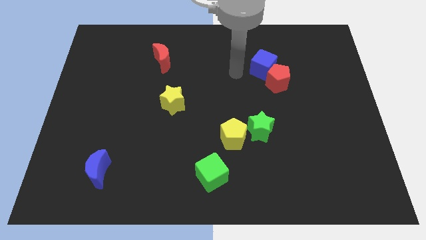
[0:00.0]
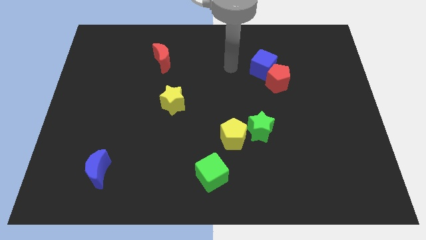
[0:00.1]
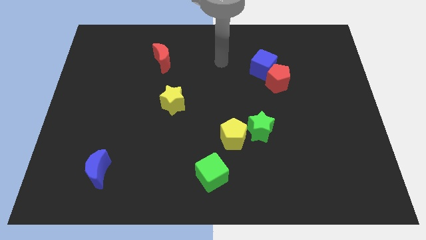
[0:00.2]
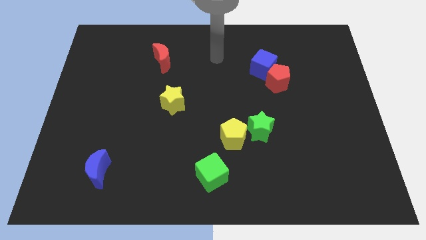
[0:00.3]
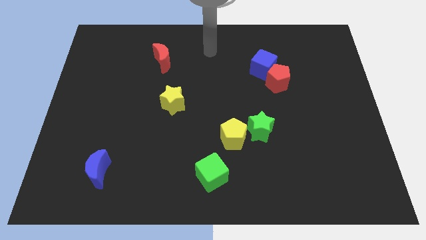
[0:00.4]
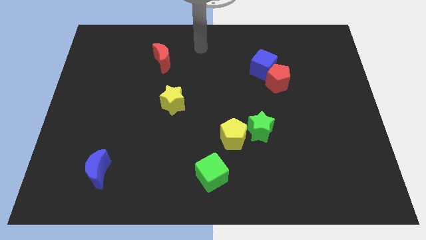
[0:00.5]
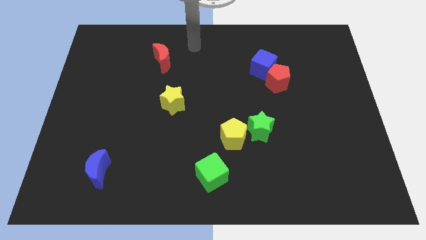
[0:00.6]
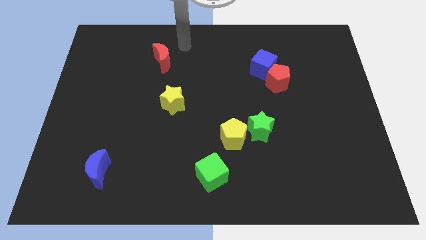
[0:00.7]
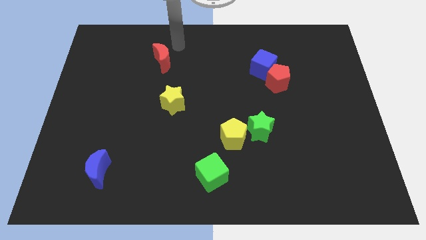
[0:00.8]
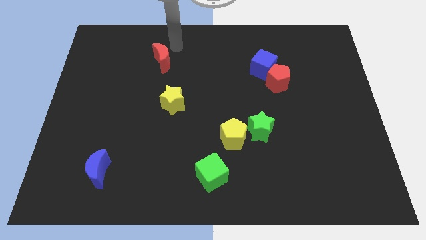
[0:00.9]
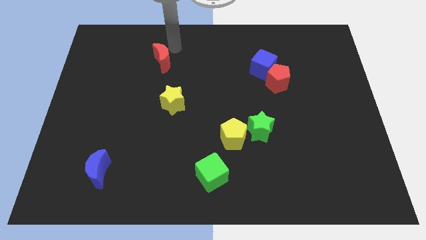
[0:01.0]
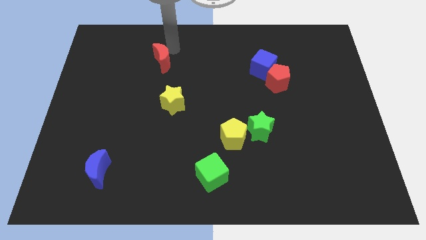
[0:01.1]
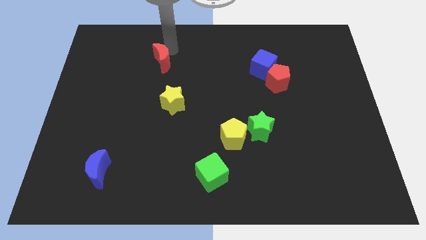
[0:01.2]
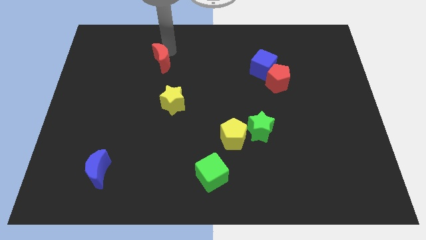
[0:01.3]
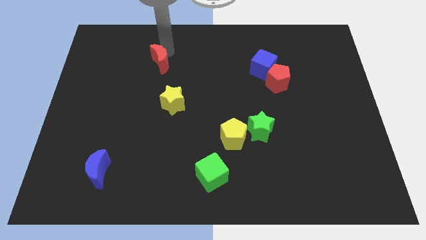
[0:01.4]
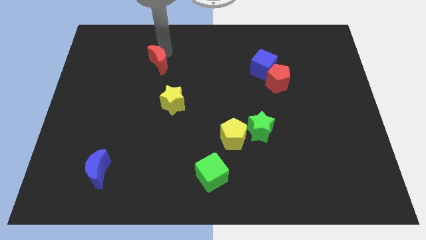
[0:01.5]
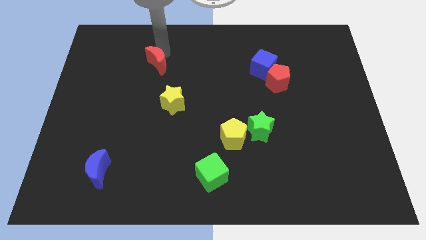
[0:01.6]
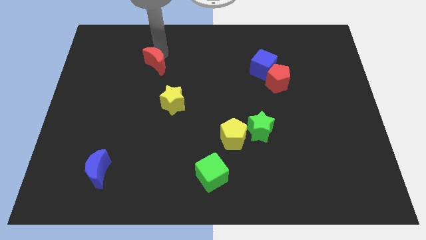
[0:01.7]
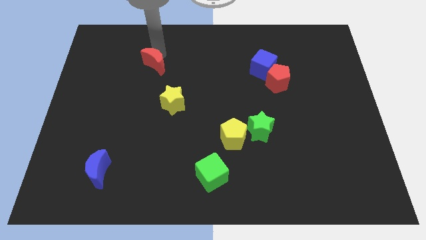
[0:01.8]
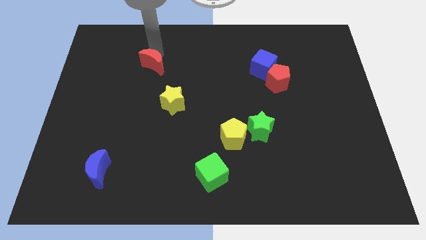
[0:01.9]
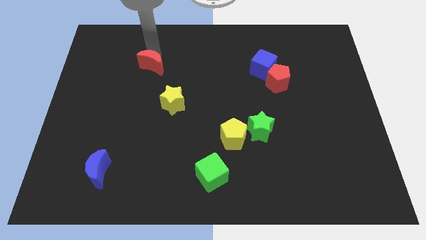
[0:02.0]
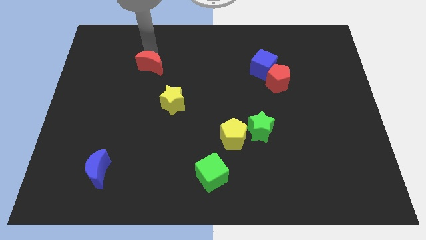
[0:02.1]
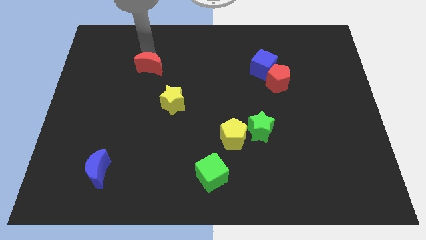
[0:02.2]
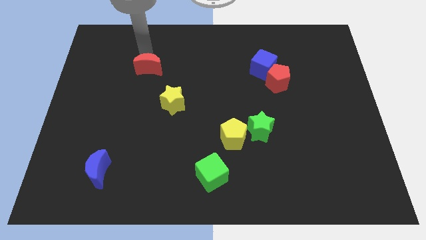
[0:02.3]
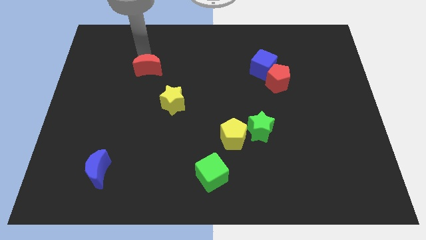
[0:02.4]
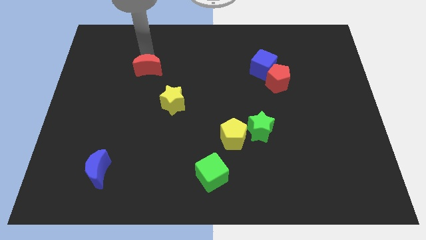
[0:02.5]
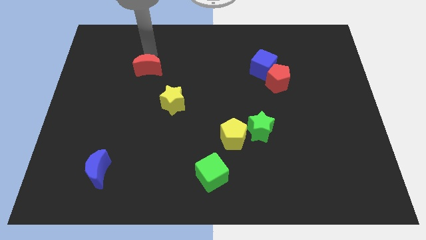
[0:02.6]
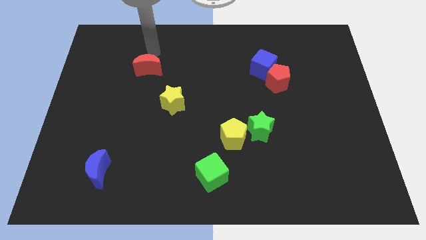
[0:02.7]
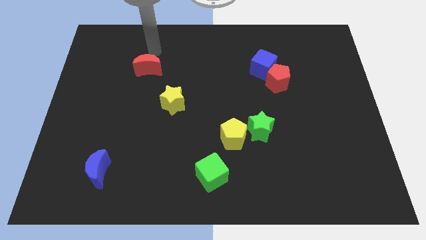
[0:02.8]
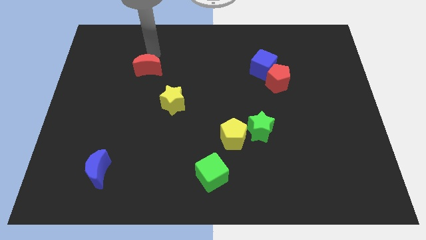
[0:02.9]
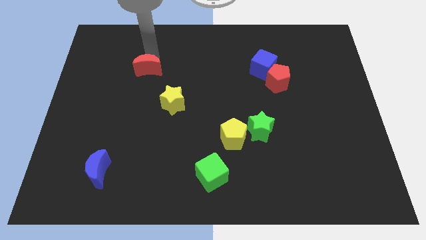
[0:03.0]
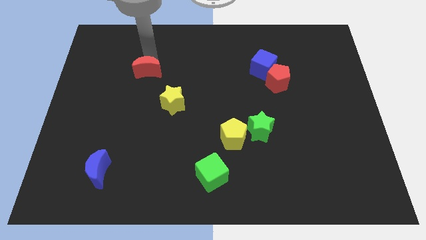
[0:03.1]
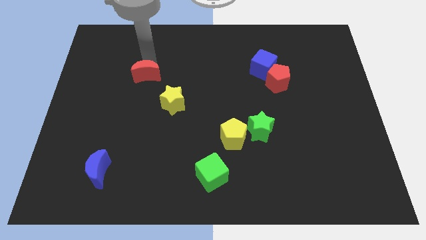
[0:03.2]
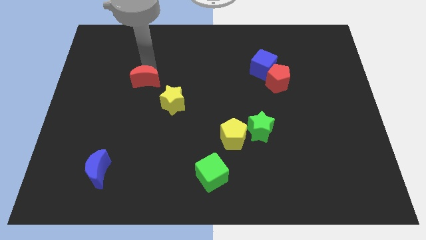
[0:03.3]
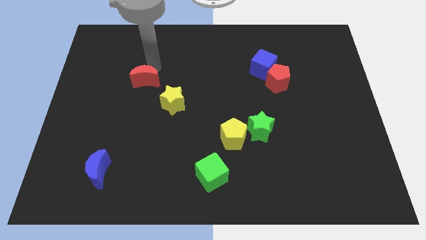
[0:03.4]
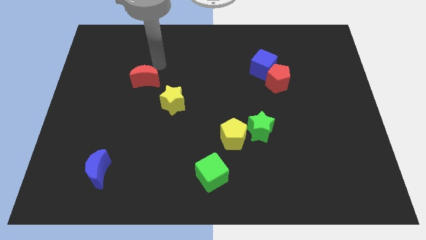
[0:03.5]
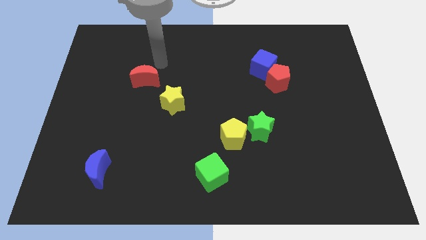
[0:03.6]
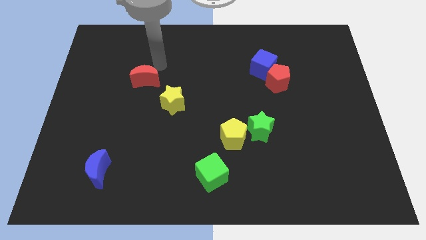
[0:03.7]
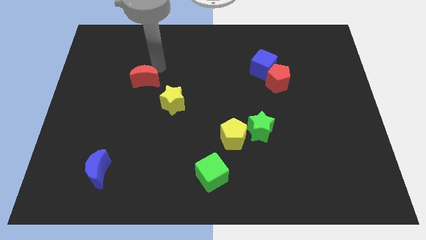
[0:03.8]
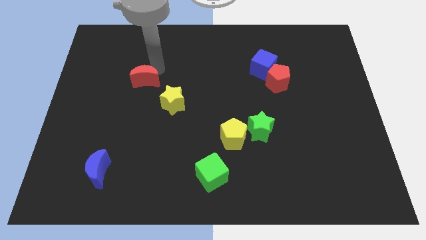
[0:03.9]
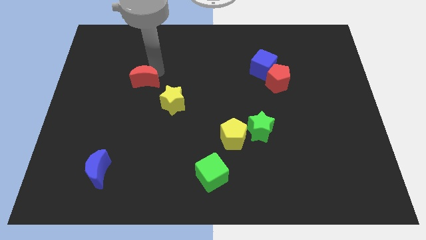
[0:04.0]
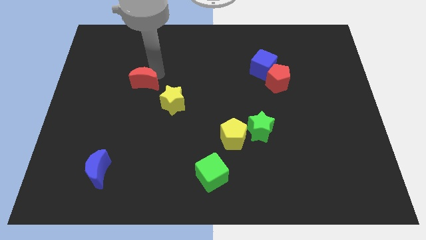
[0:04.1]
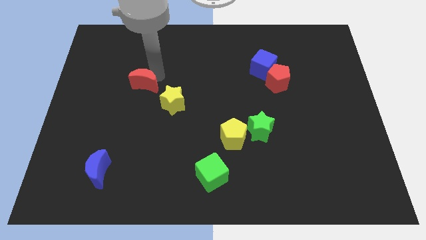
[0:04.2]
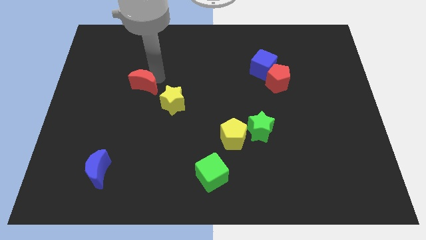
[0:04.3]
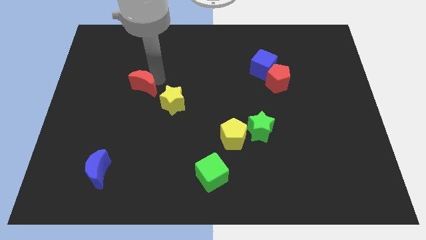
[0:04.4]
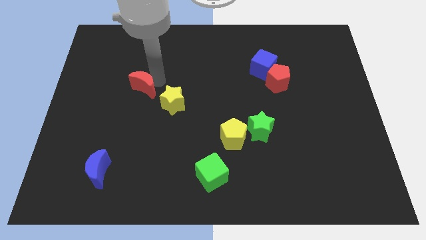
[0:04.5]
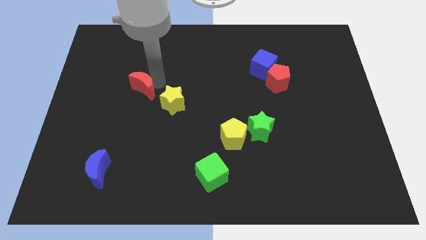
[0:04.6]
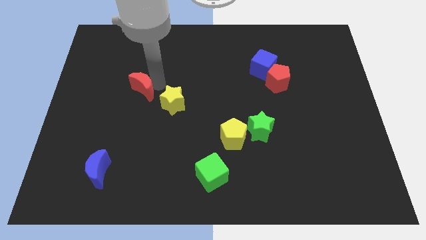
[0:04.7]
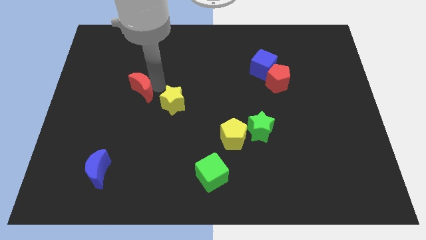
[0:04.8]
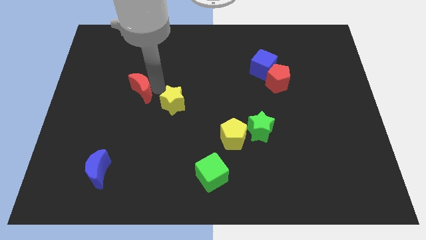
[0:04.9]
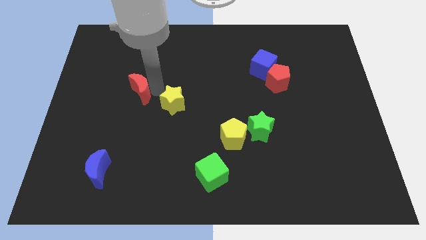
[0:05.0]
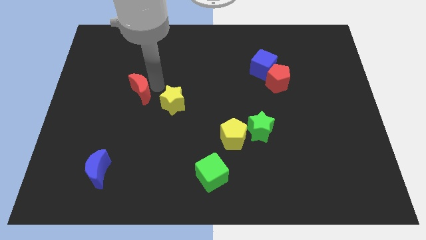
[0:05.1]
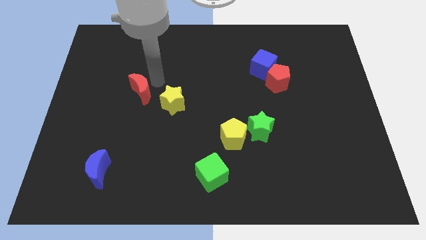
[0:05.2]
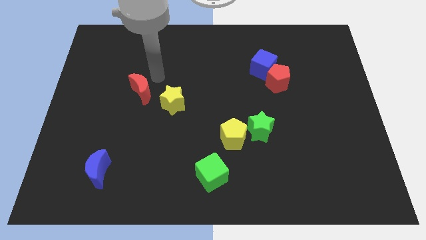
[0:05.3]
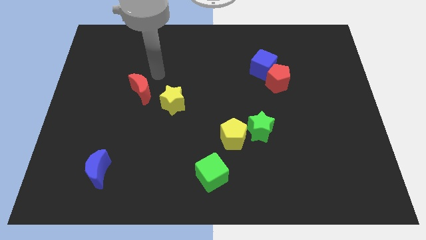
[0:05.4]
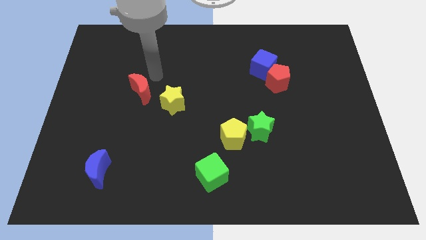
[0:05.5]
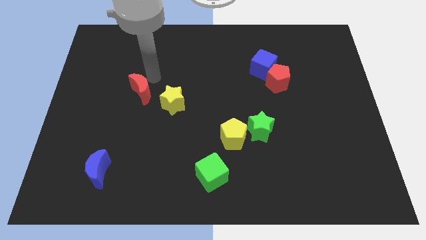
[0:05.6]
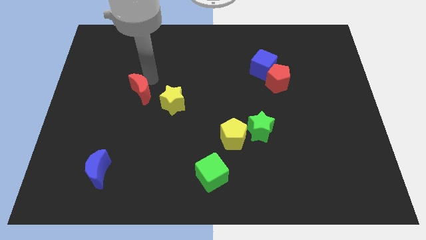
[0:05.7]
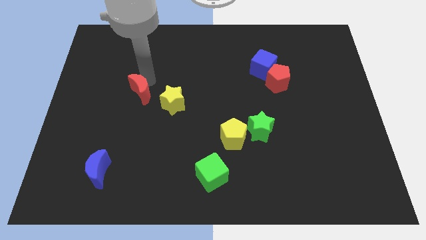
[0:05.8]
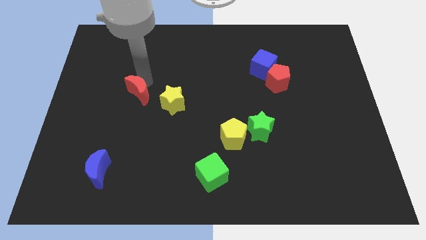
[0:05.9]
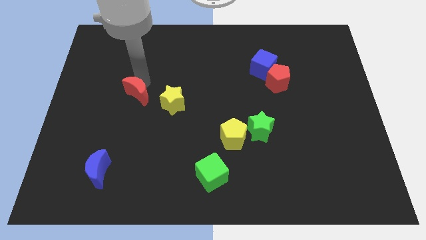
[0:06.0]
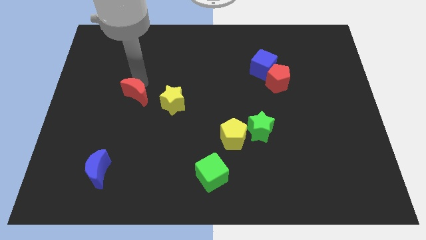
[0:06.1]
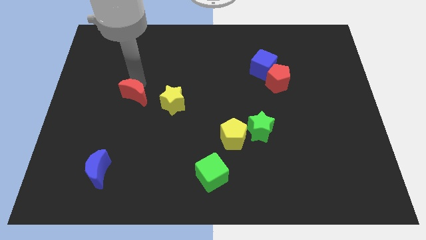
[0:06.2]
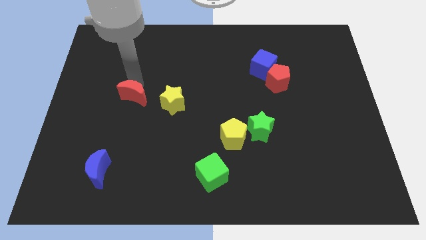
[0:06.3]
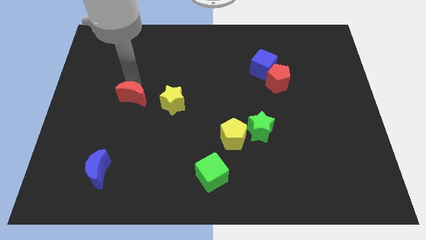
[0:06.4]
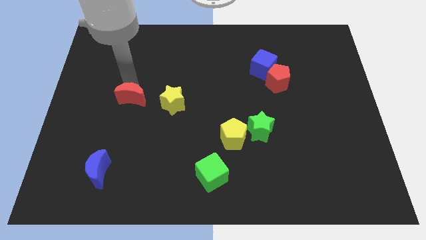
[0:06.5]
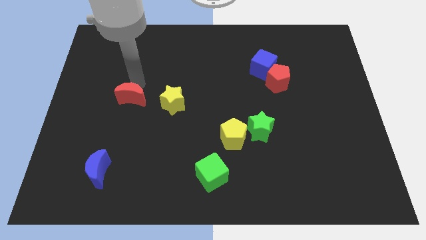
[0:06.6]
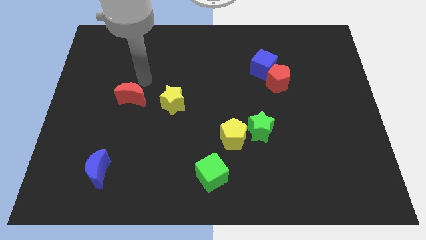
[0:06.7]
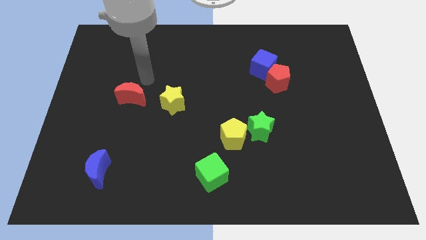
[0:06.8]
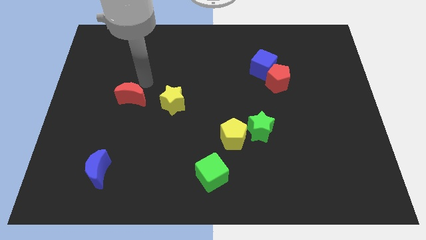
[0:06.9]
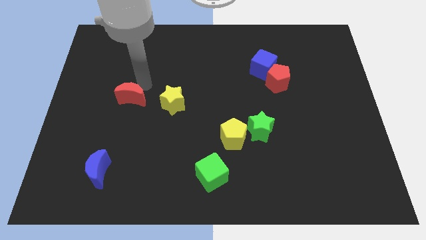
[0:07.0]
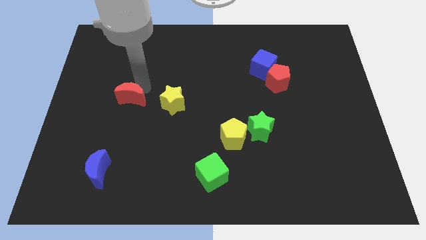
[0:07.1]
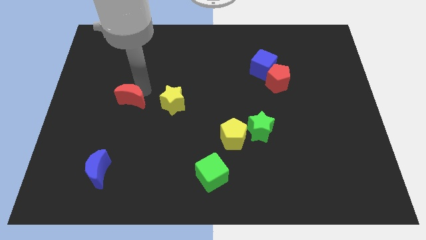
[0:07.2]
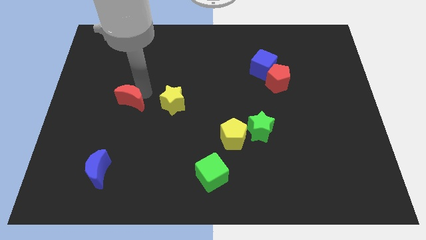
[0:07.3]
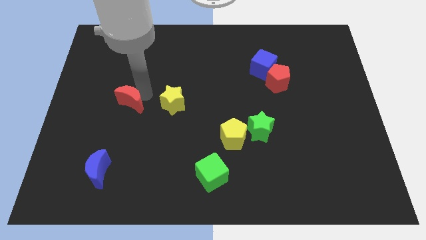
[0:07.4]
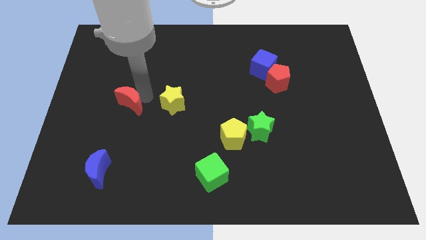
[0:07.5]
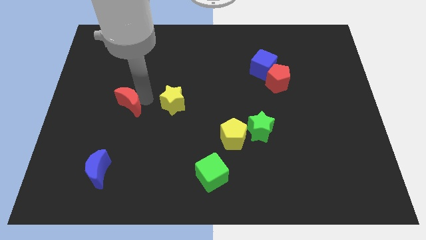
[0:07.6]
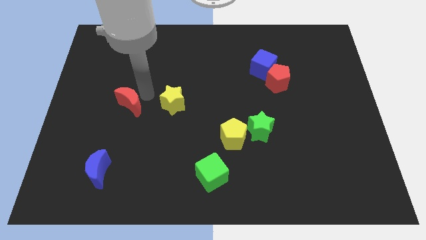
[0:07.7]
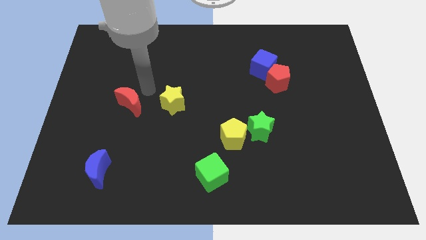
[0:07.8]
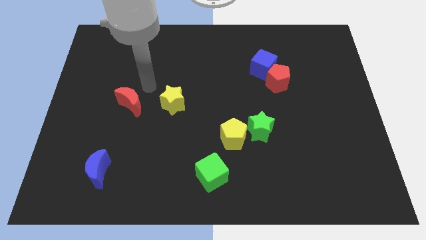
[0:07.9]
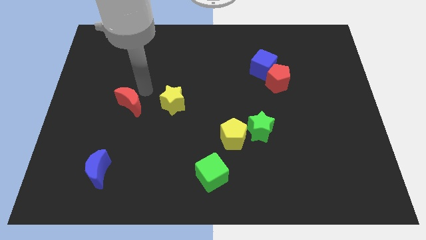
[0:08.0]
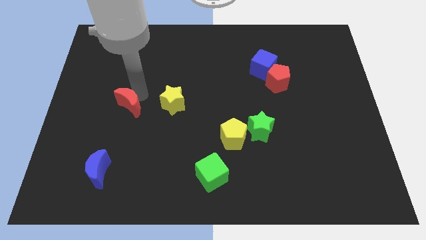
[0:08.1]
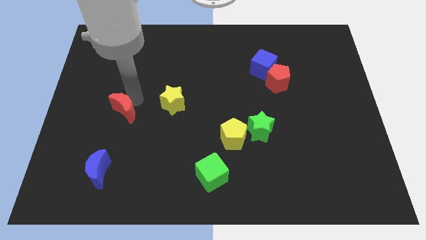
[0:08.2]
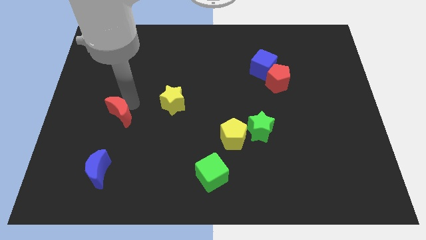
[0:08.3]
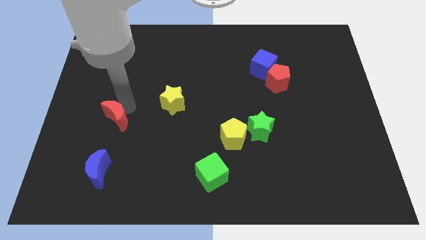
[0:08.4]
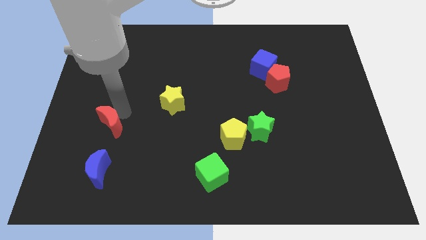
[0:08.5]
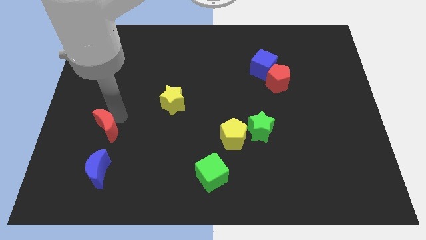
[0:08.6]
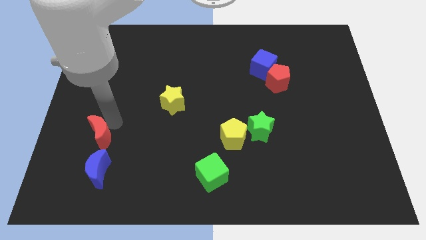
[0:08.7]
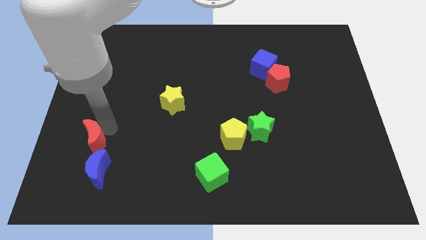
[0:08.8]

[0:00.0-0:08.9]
push the red moon to the top left side of the blue moon
